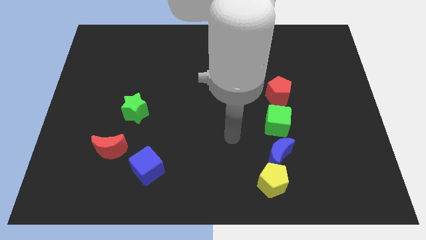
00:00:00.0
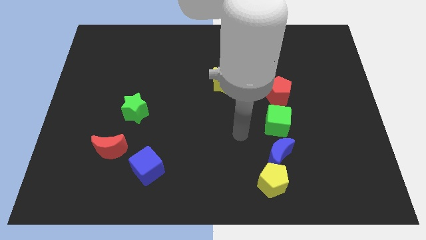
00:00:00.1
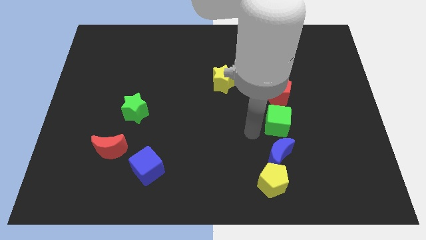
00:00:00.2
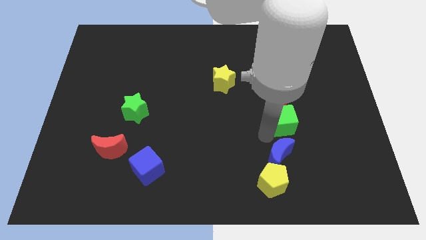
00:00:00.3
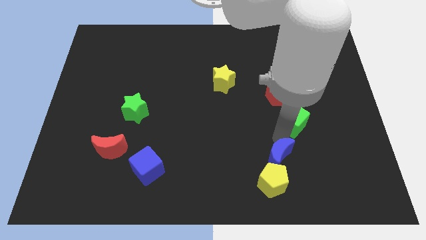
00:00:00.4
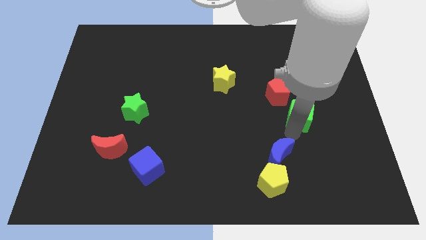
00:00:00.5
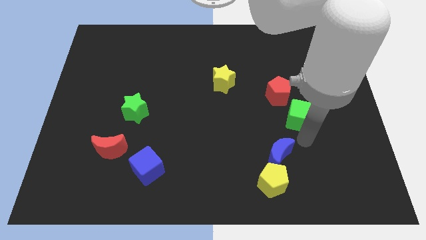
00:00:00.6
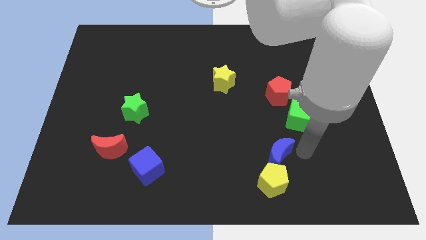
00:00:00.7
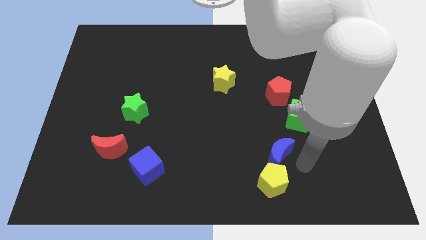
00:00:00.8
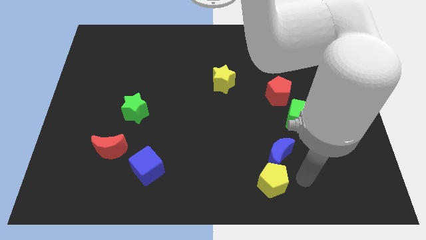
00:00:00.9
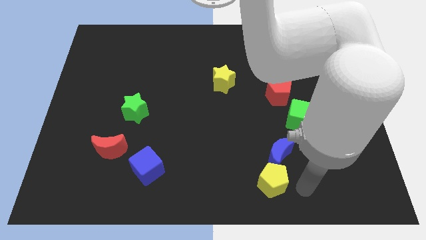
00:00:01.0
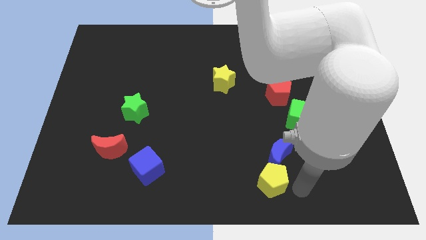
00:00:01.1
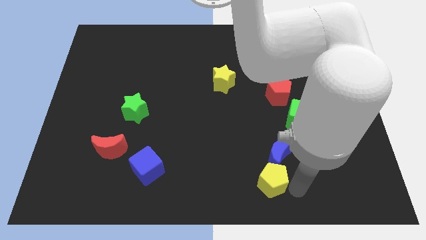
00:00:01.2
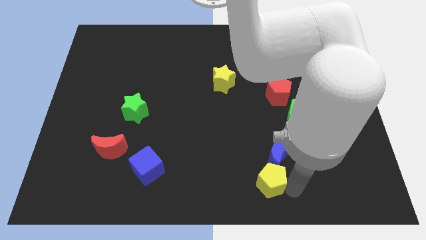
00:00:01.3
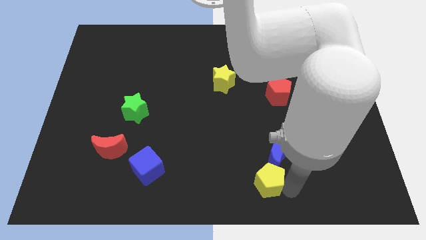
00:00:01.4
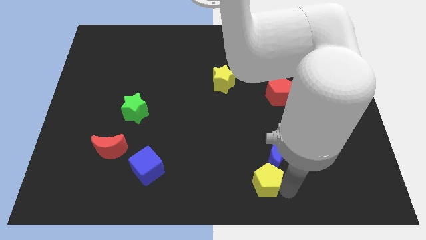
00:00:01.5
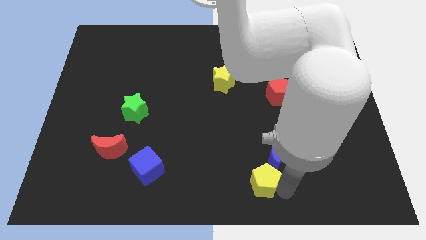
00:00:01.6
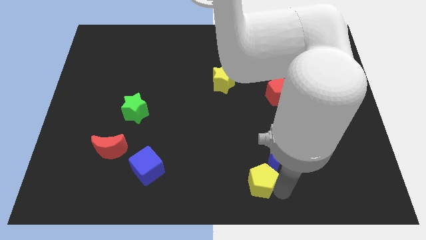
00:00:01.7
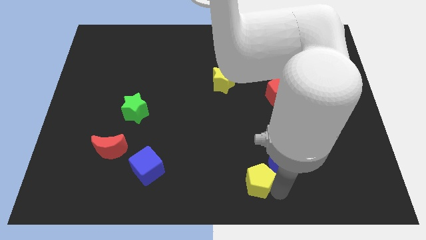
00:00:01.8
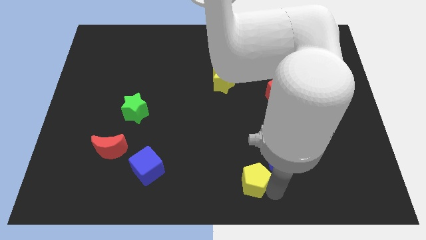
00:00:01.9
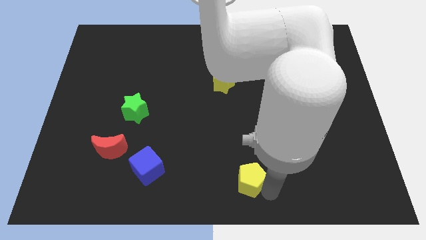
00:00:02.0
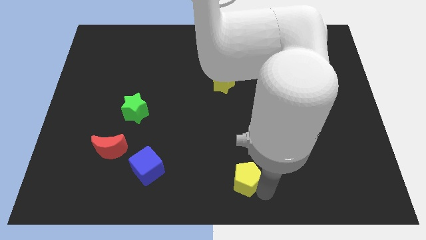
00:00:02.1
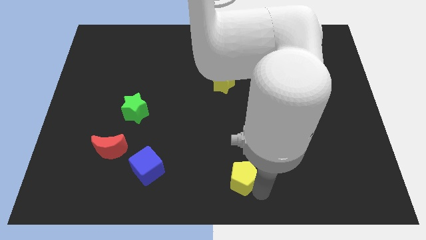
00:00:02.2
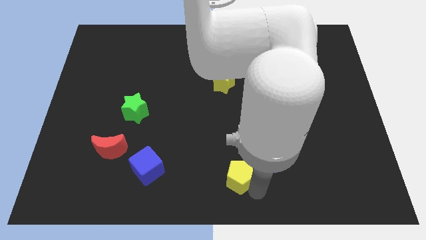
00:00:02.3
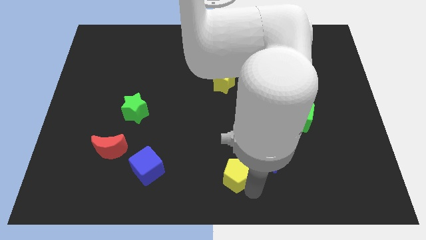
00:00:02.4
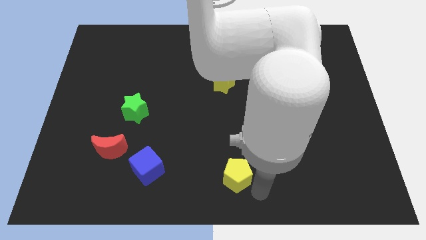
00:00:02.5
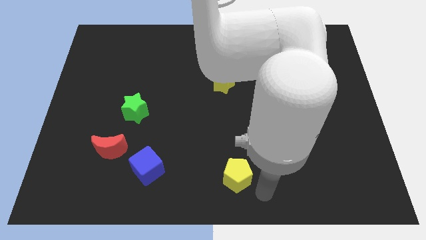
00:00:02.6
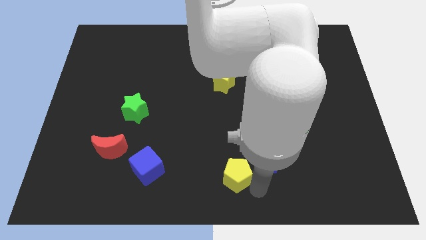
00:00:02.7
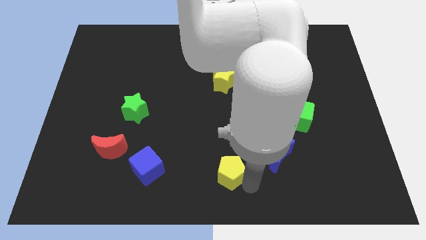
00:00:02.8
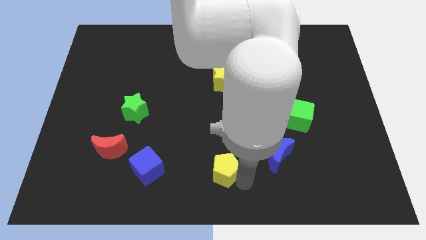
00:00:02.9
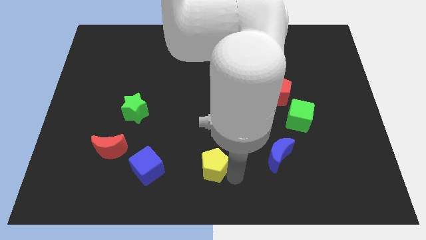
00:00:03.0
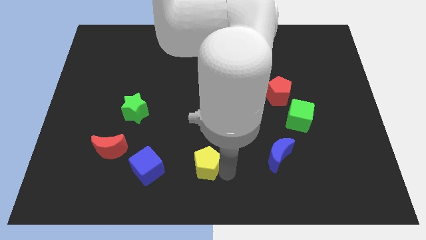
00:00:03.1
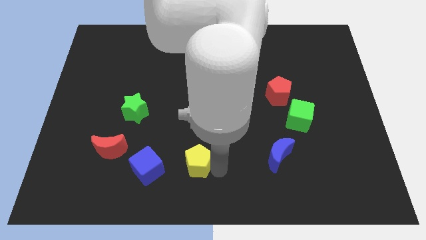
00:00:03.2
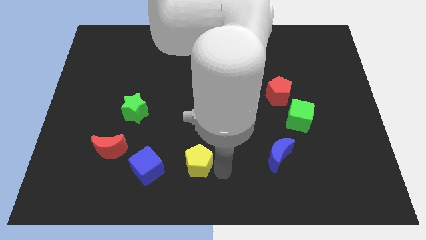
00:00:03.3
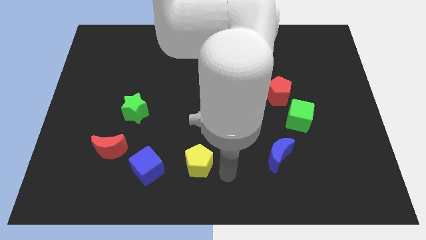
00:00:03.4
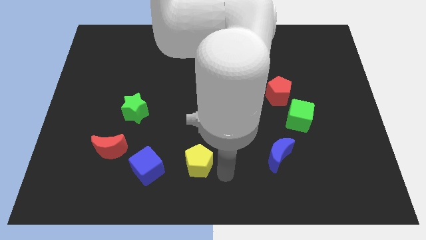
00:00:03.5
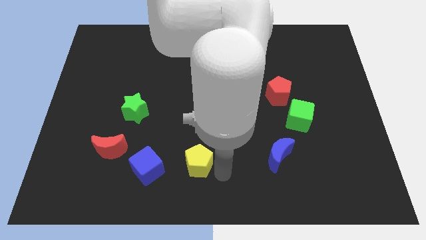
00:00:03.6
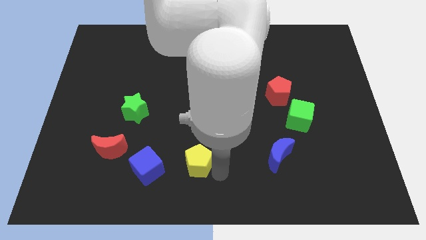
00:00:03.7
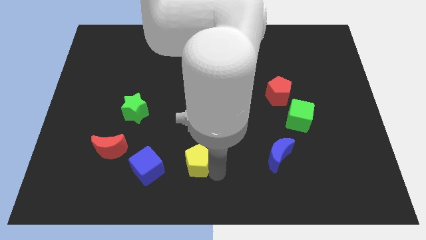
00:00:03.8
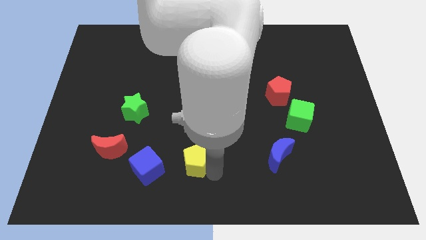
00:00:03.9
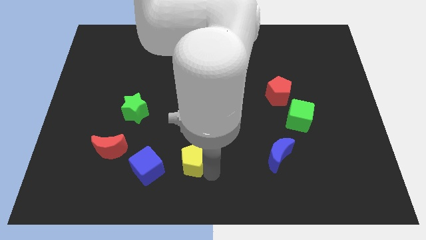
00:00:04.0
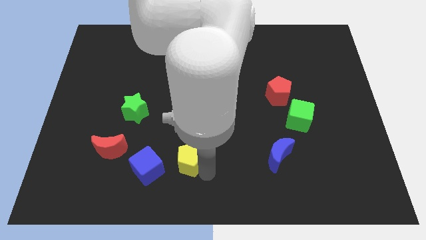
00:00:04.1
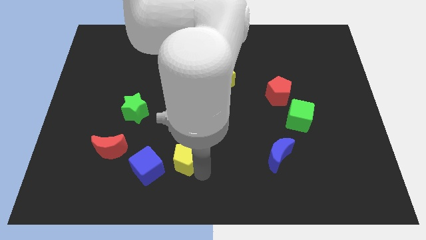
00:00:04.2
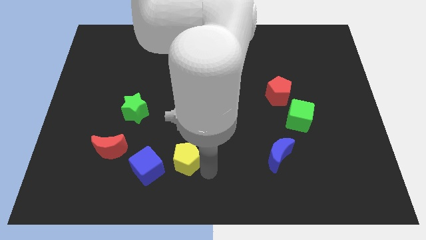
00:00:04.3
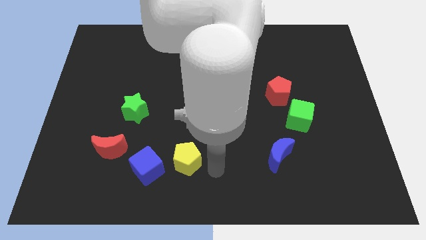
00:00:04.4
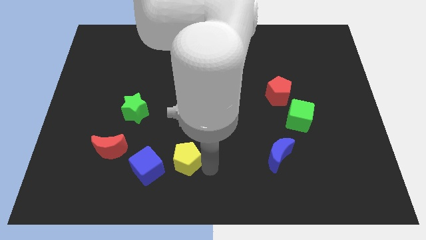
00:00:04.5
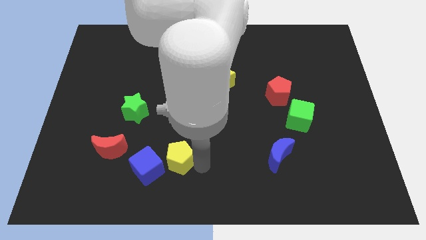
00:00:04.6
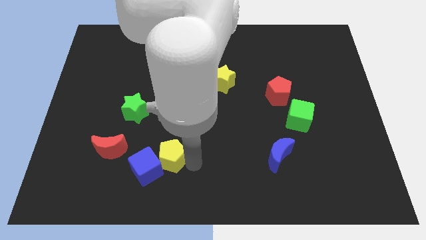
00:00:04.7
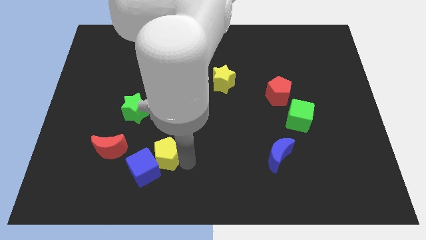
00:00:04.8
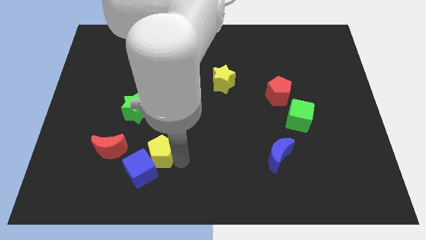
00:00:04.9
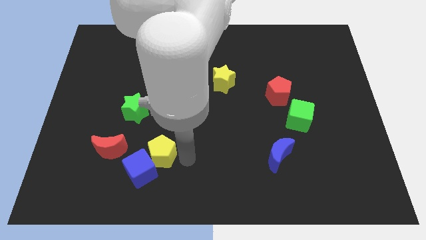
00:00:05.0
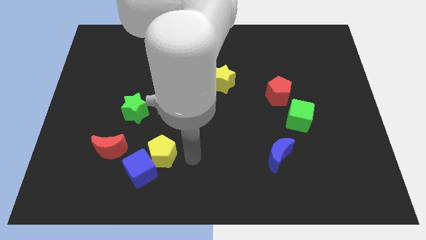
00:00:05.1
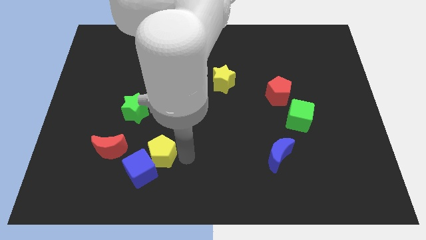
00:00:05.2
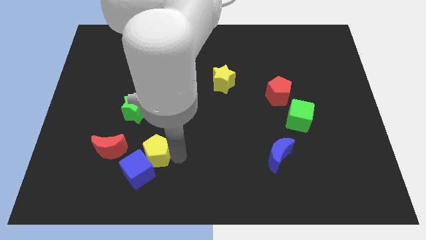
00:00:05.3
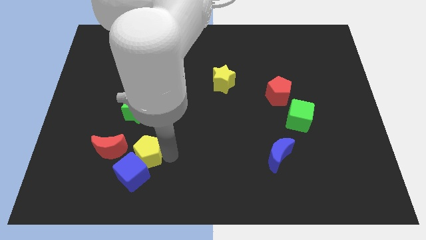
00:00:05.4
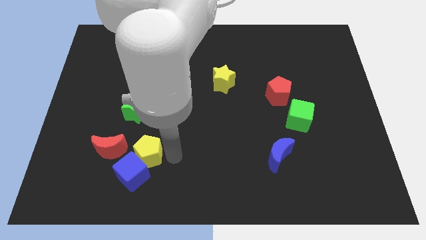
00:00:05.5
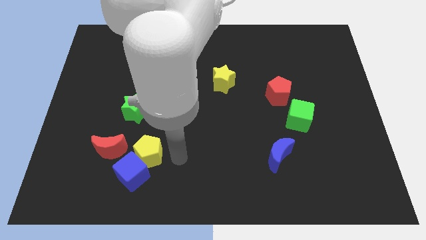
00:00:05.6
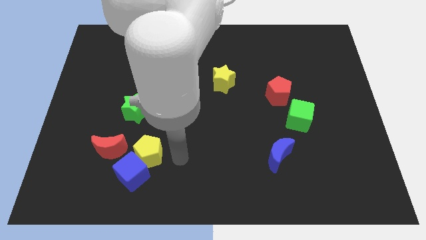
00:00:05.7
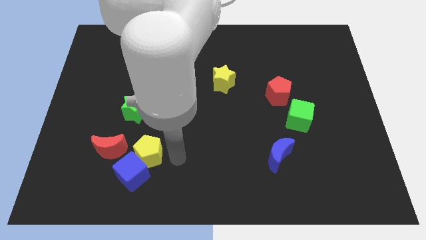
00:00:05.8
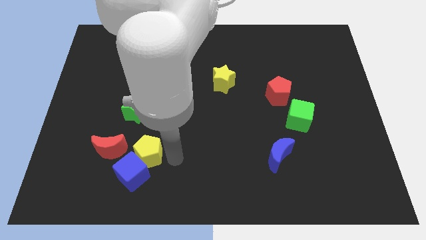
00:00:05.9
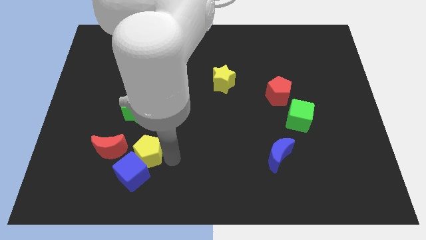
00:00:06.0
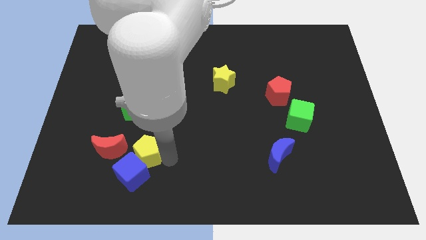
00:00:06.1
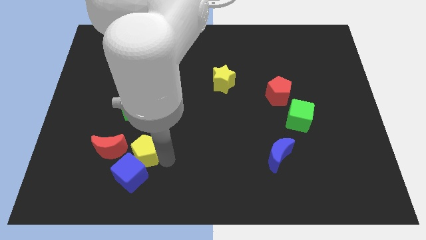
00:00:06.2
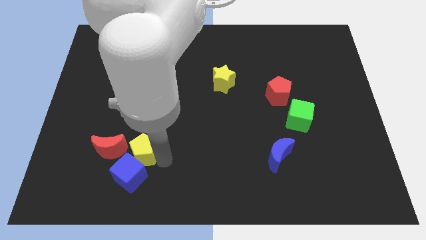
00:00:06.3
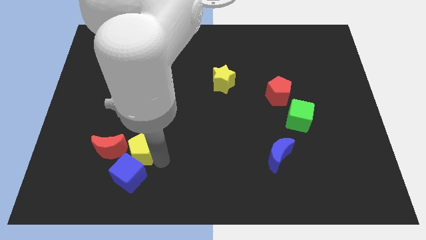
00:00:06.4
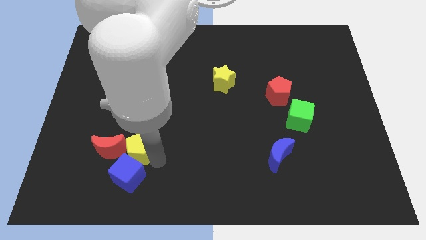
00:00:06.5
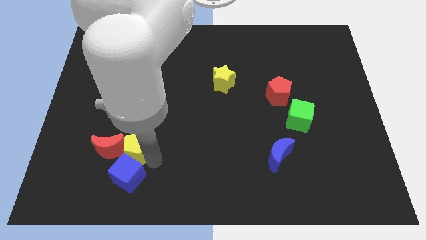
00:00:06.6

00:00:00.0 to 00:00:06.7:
move the yellow pentagon close to the red moon
